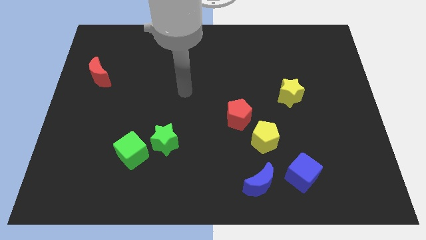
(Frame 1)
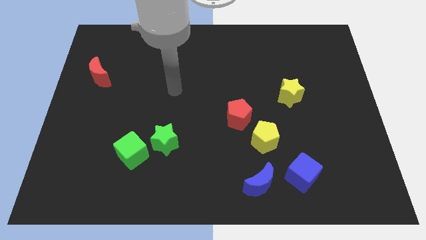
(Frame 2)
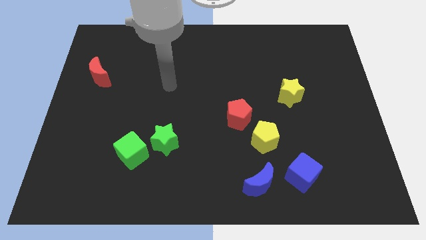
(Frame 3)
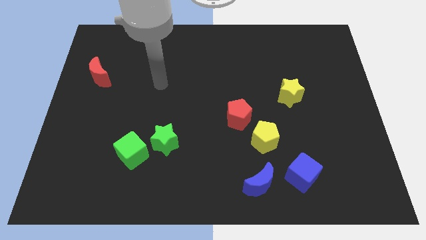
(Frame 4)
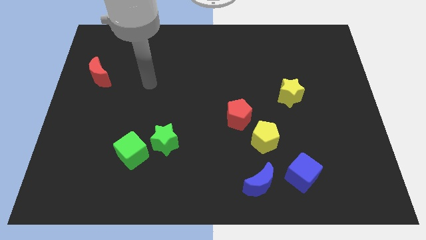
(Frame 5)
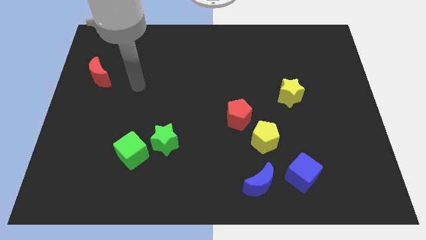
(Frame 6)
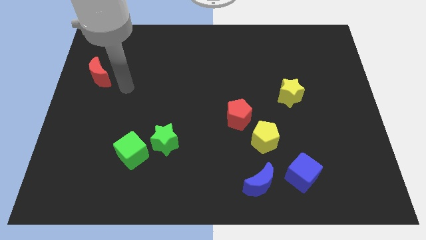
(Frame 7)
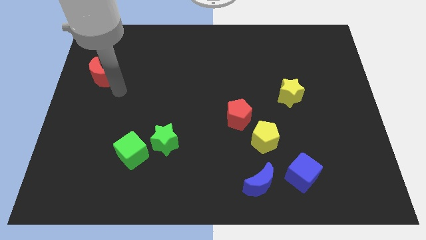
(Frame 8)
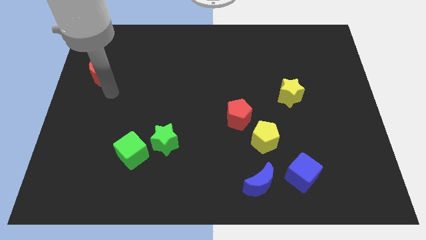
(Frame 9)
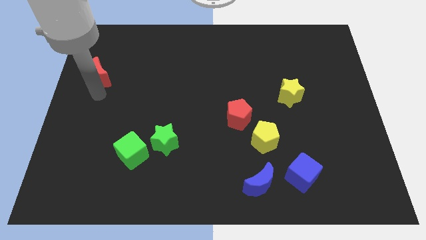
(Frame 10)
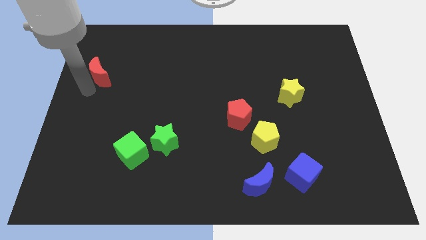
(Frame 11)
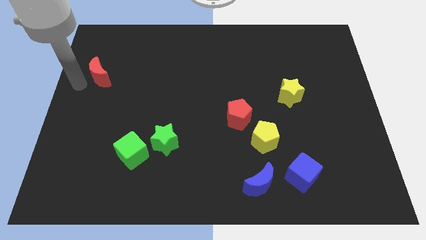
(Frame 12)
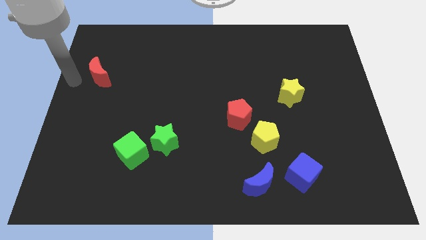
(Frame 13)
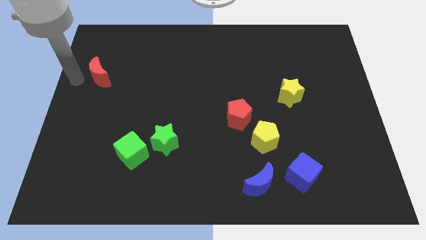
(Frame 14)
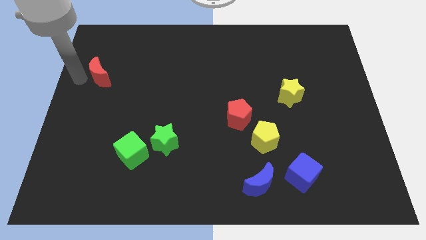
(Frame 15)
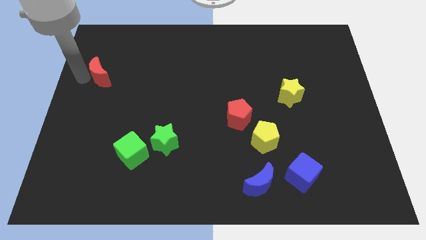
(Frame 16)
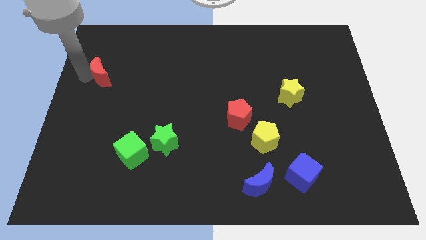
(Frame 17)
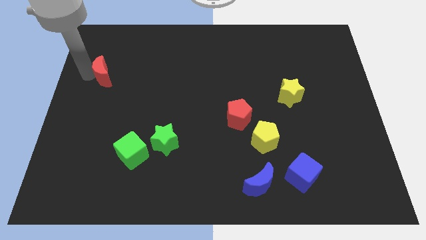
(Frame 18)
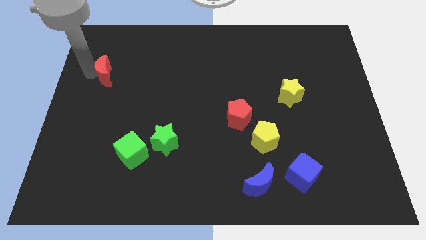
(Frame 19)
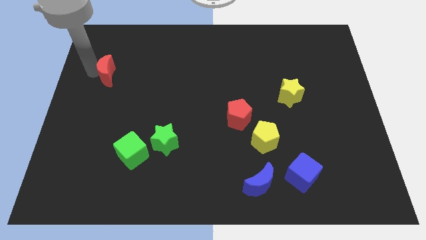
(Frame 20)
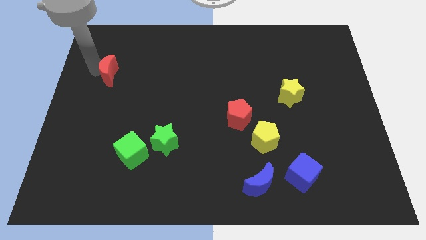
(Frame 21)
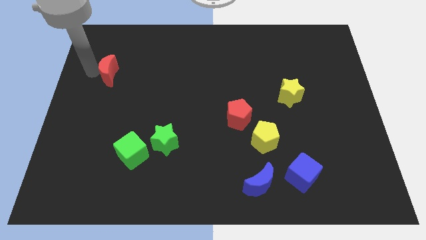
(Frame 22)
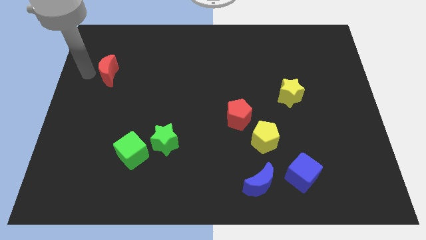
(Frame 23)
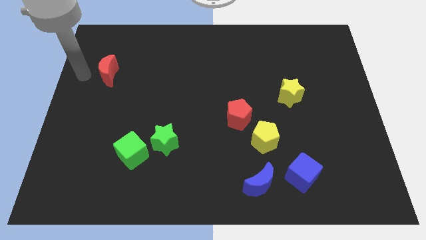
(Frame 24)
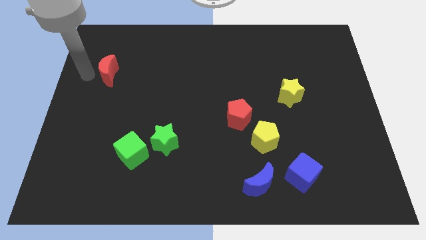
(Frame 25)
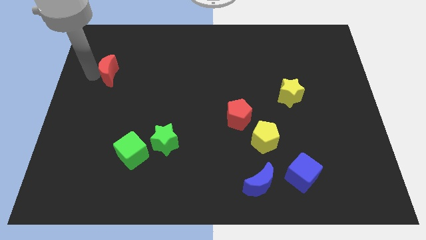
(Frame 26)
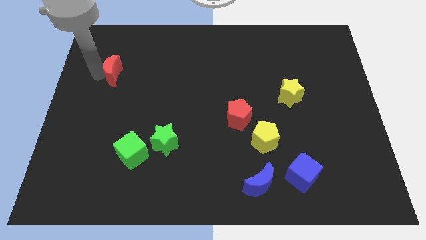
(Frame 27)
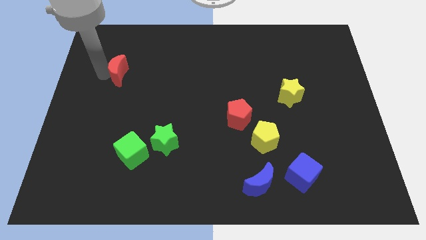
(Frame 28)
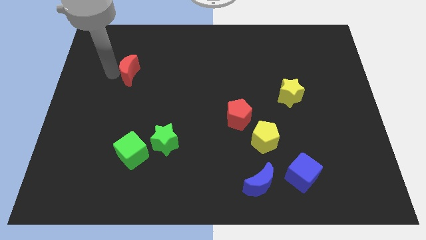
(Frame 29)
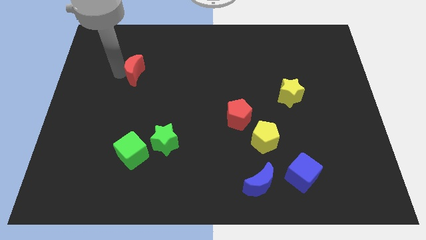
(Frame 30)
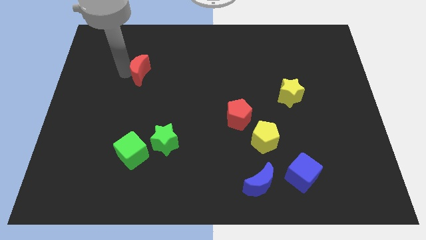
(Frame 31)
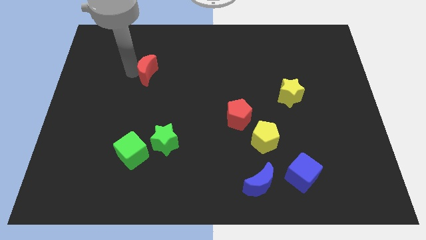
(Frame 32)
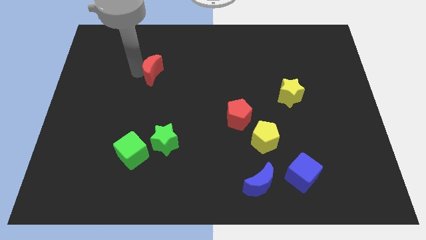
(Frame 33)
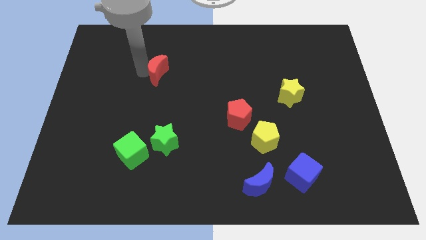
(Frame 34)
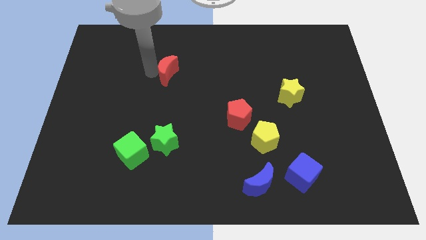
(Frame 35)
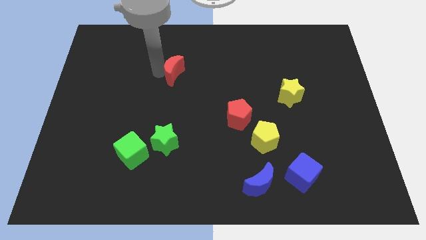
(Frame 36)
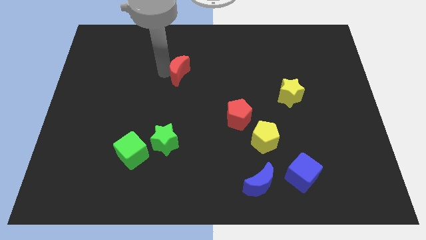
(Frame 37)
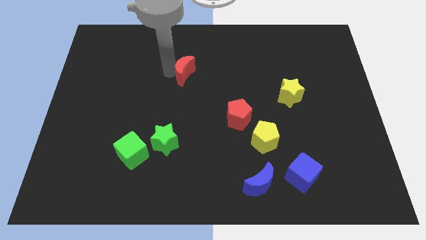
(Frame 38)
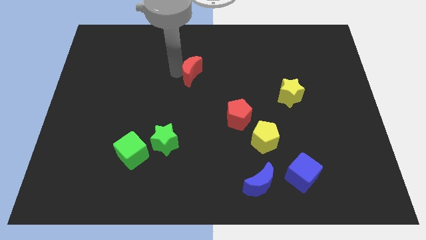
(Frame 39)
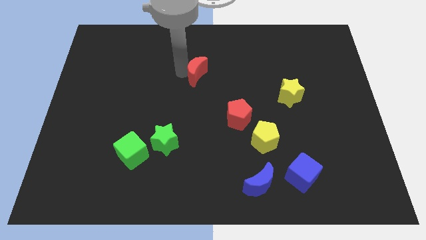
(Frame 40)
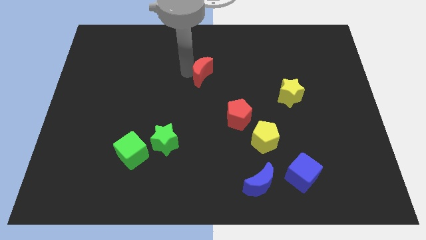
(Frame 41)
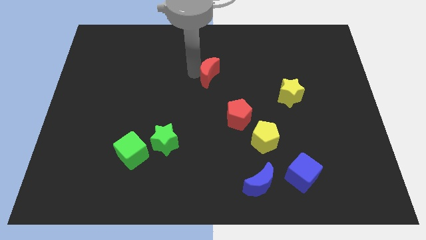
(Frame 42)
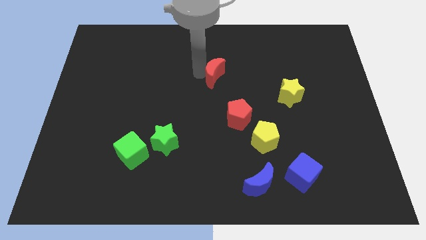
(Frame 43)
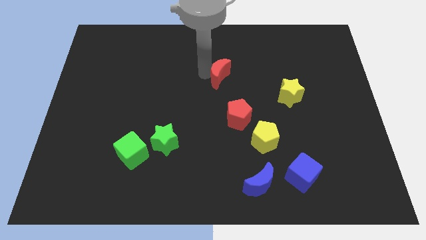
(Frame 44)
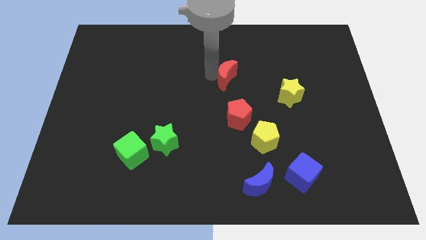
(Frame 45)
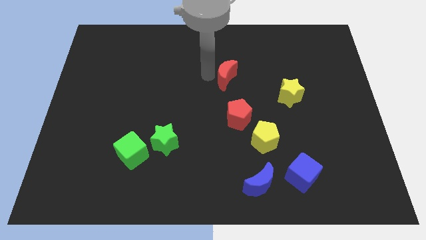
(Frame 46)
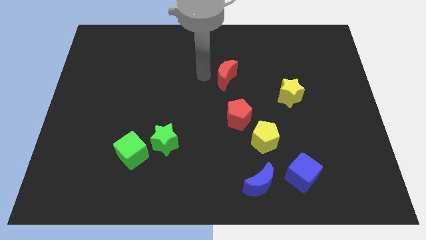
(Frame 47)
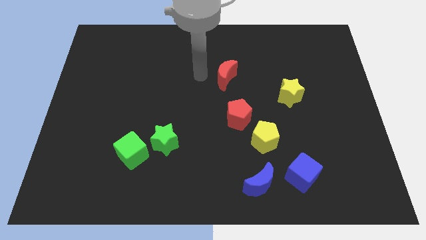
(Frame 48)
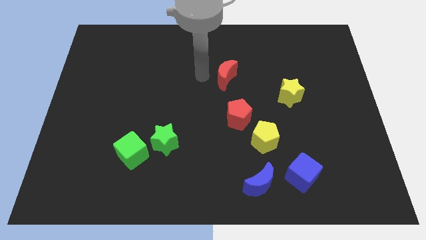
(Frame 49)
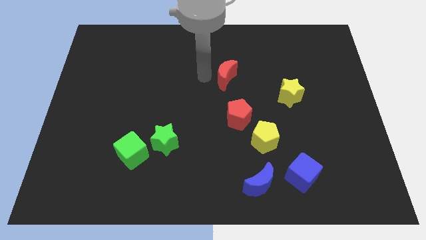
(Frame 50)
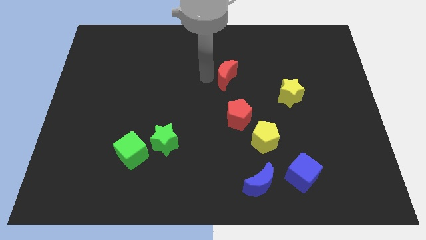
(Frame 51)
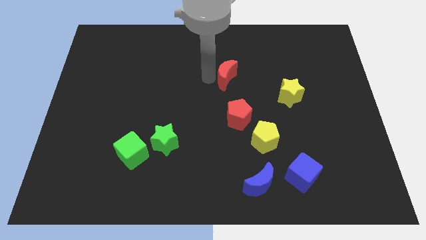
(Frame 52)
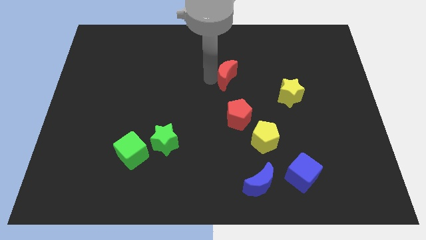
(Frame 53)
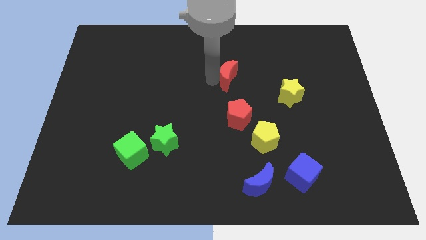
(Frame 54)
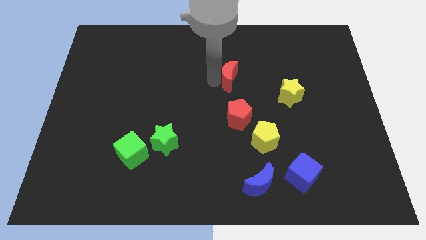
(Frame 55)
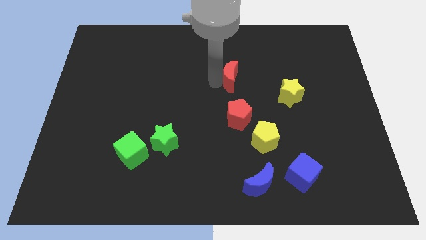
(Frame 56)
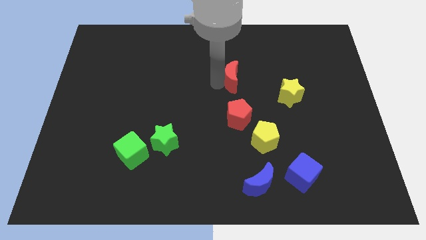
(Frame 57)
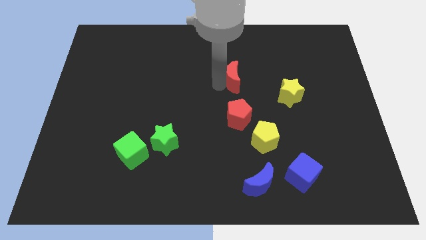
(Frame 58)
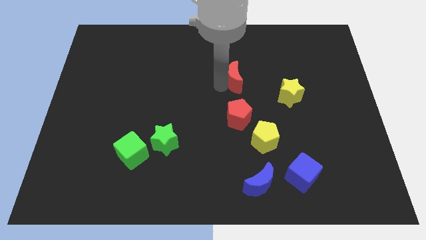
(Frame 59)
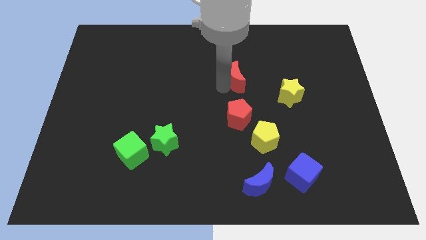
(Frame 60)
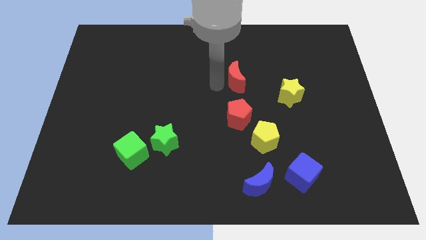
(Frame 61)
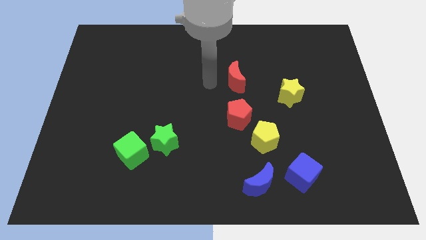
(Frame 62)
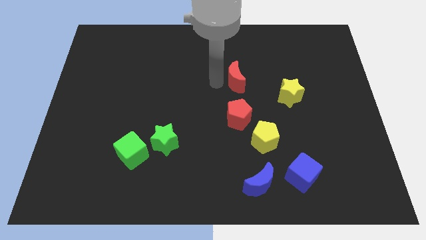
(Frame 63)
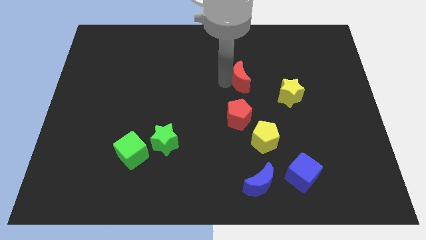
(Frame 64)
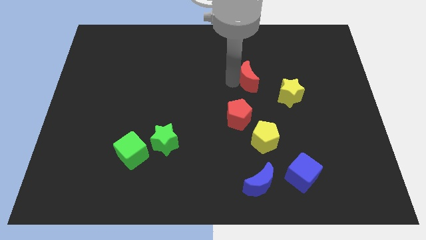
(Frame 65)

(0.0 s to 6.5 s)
put the red moon to the top left of the yellow star
